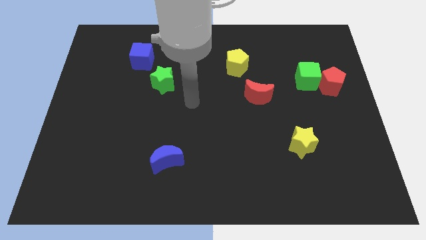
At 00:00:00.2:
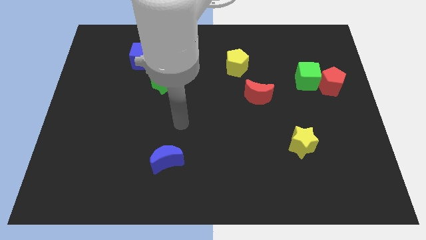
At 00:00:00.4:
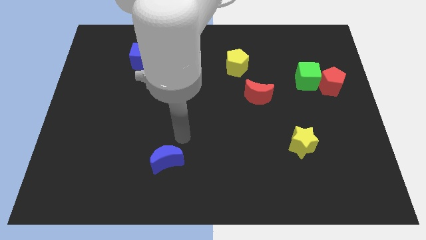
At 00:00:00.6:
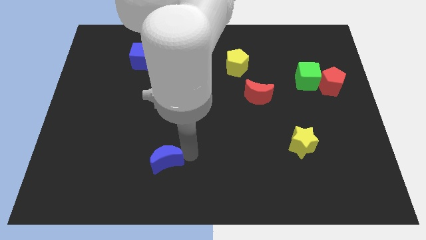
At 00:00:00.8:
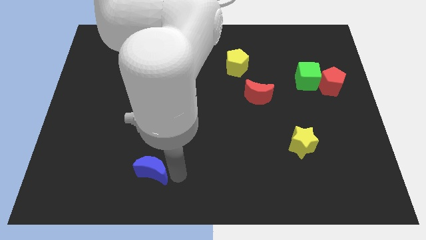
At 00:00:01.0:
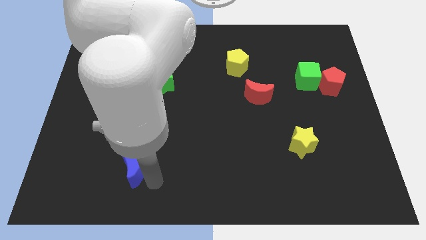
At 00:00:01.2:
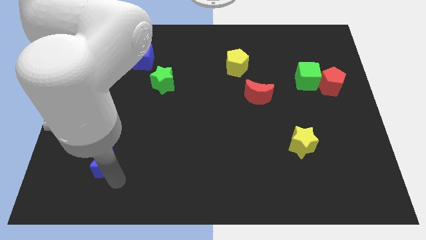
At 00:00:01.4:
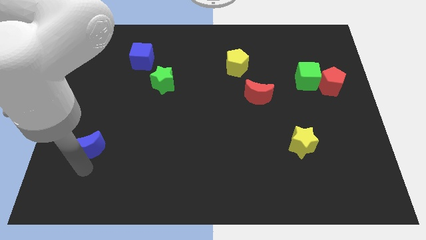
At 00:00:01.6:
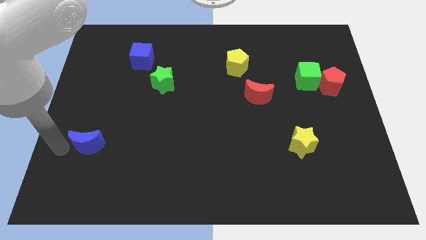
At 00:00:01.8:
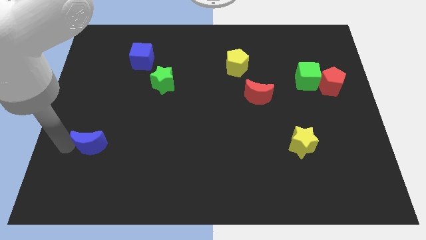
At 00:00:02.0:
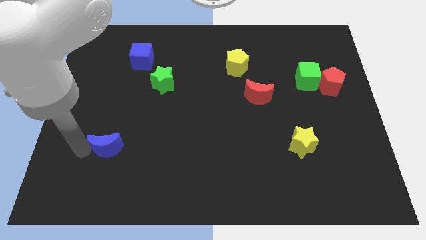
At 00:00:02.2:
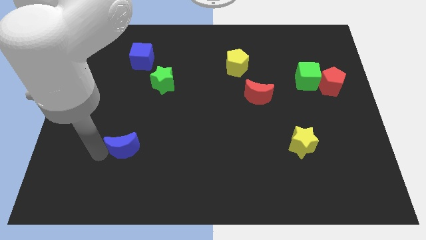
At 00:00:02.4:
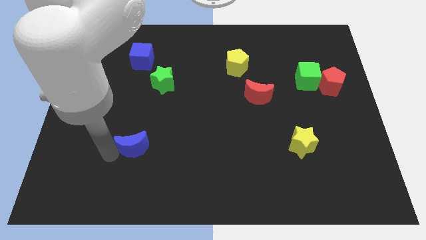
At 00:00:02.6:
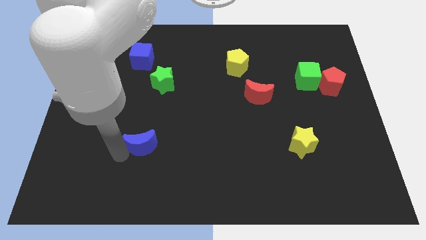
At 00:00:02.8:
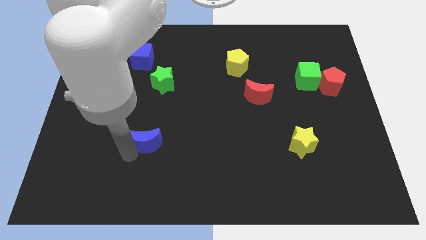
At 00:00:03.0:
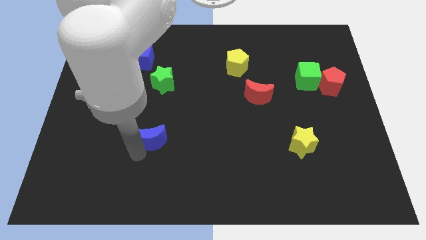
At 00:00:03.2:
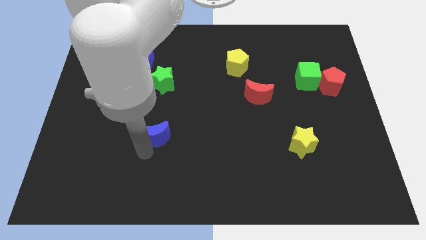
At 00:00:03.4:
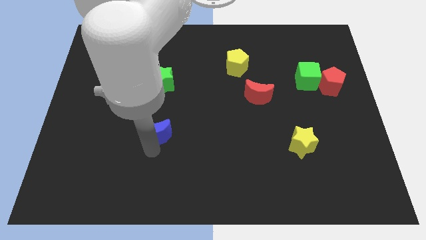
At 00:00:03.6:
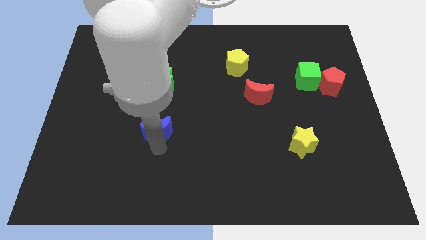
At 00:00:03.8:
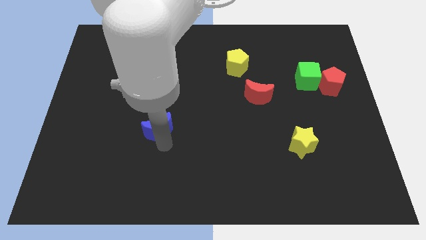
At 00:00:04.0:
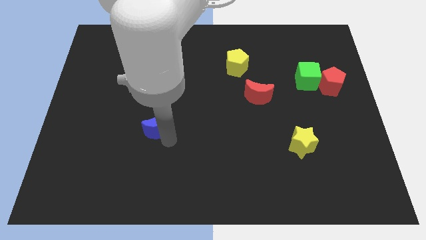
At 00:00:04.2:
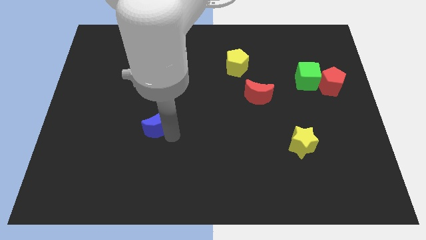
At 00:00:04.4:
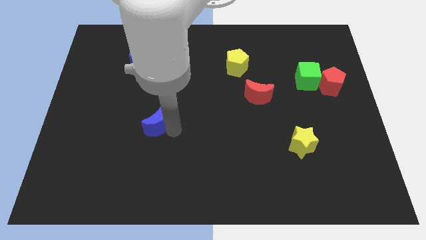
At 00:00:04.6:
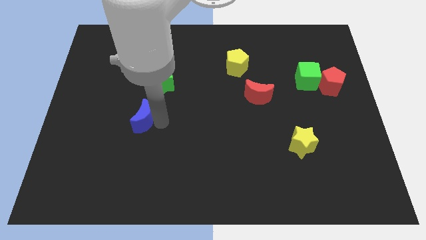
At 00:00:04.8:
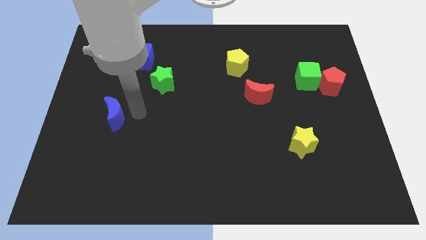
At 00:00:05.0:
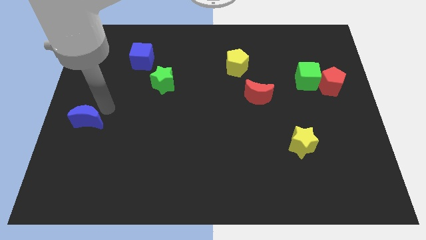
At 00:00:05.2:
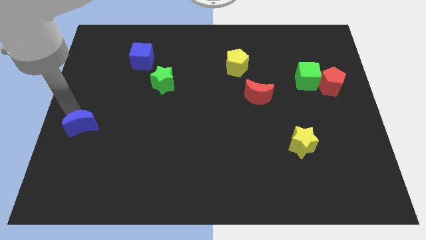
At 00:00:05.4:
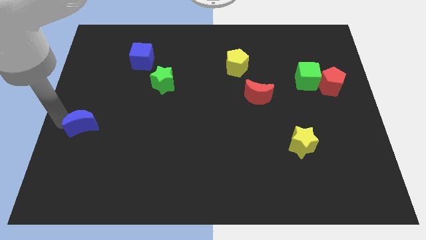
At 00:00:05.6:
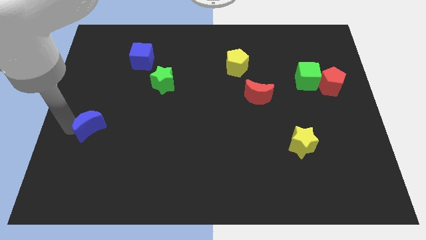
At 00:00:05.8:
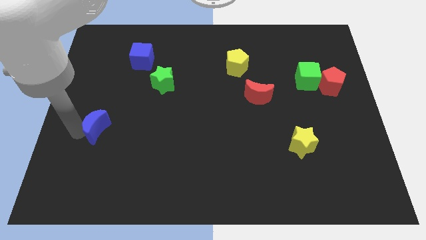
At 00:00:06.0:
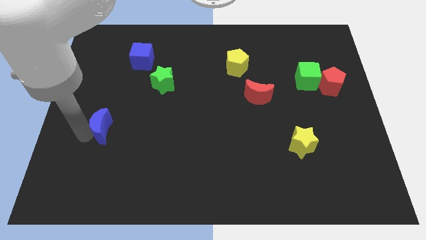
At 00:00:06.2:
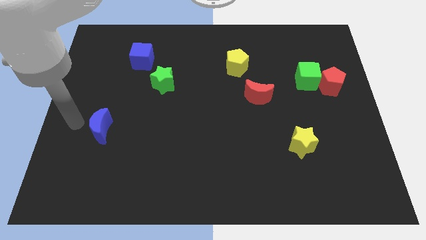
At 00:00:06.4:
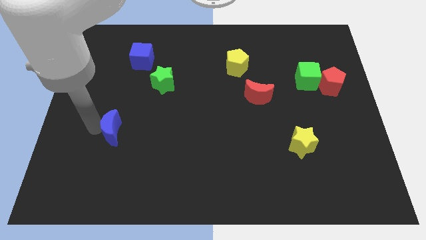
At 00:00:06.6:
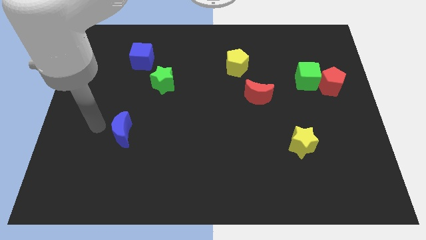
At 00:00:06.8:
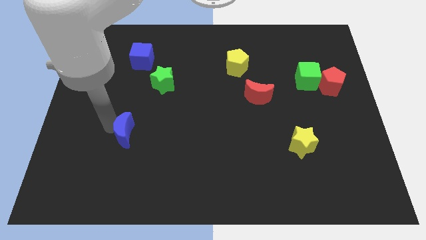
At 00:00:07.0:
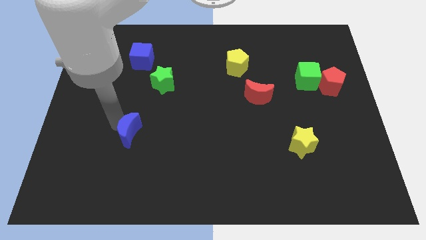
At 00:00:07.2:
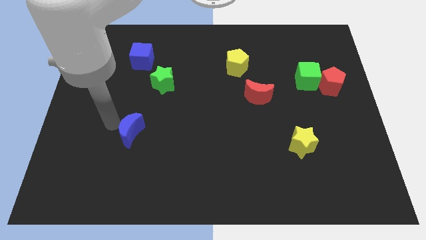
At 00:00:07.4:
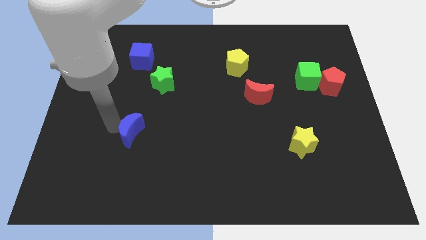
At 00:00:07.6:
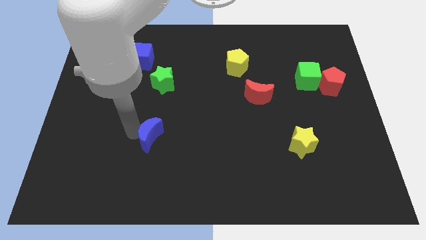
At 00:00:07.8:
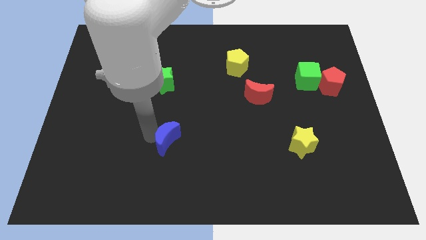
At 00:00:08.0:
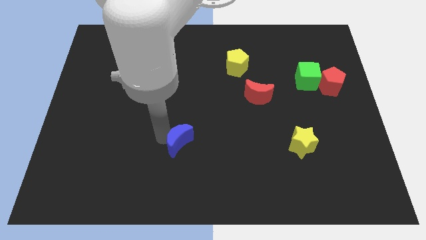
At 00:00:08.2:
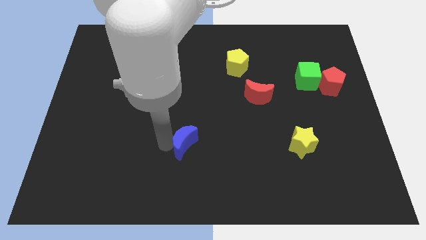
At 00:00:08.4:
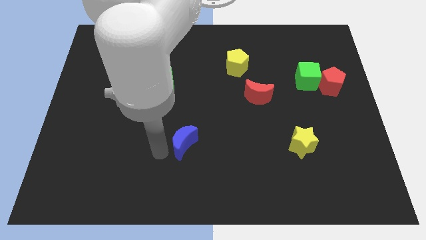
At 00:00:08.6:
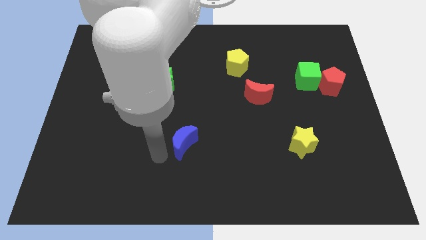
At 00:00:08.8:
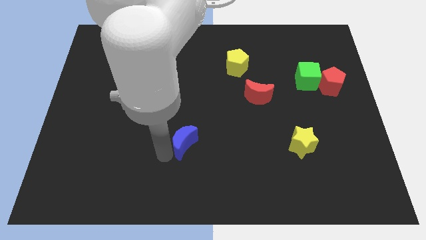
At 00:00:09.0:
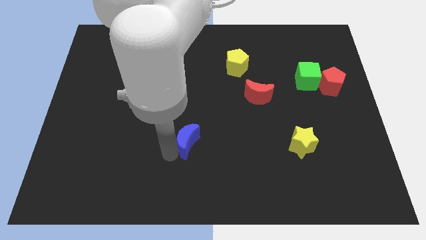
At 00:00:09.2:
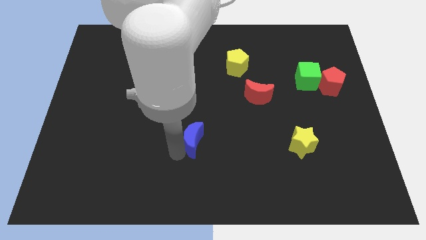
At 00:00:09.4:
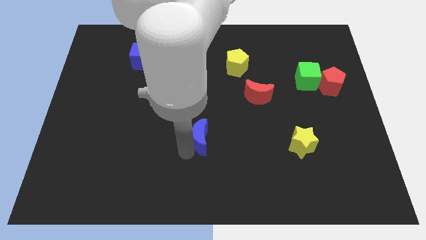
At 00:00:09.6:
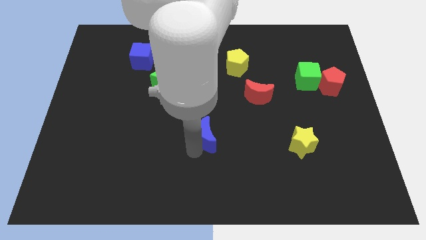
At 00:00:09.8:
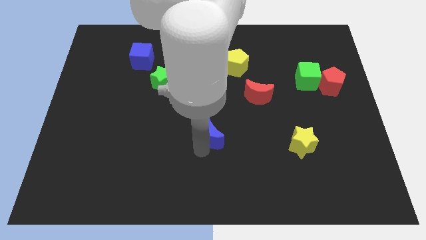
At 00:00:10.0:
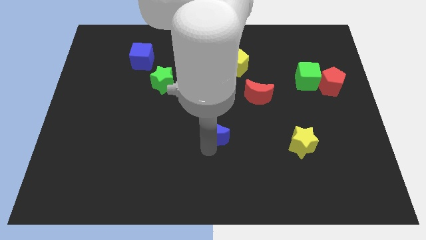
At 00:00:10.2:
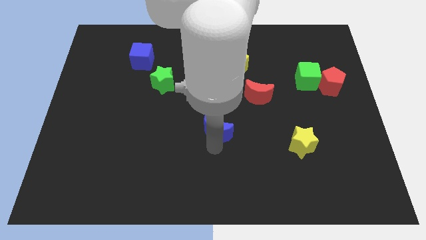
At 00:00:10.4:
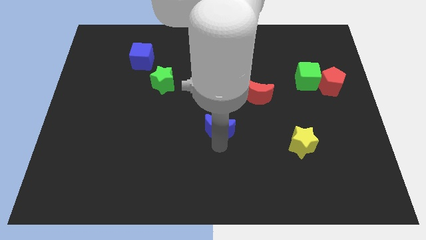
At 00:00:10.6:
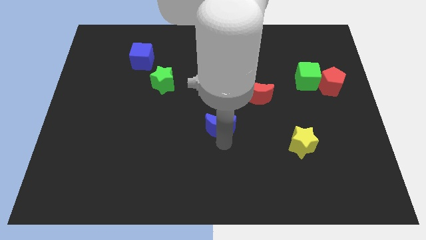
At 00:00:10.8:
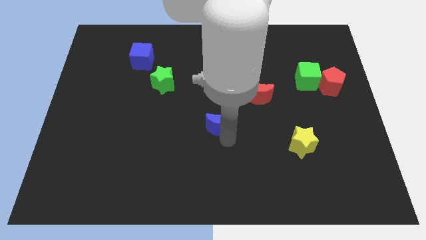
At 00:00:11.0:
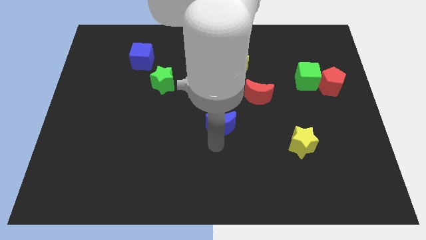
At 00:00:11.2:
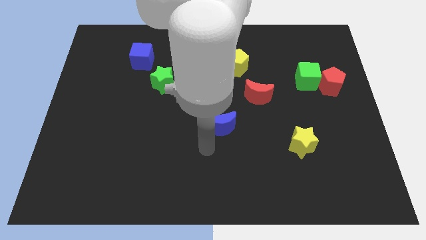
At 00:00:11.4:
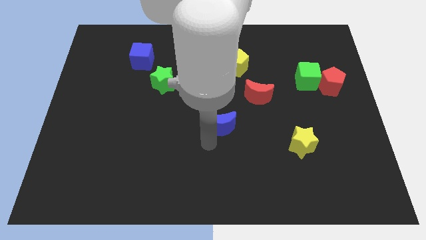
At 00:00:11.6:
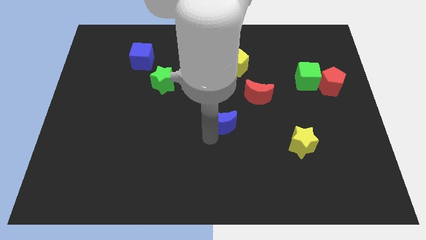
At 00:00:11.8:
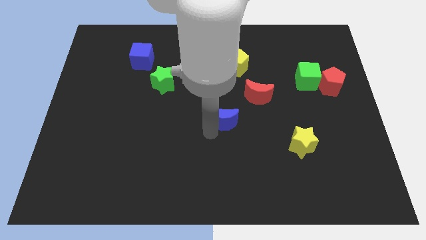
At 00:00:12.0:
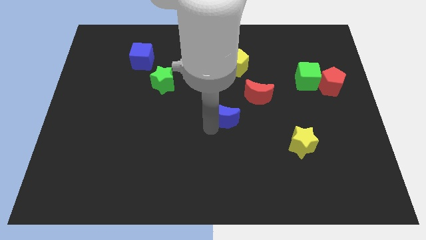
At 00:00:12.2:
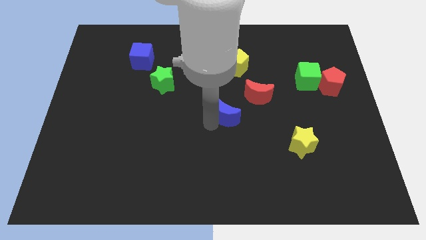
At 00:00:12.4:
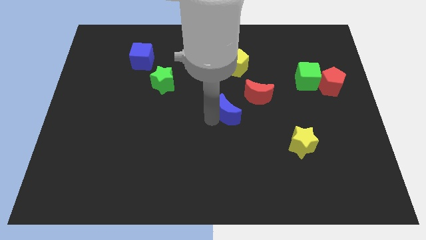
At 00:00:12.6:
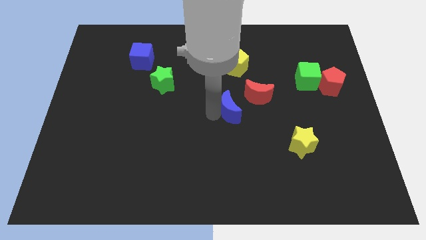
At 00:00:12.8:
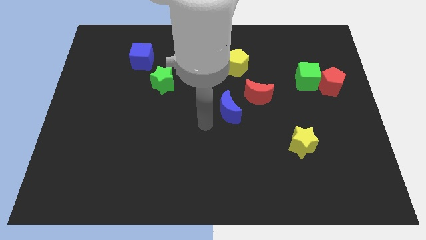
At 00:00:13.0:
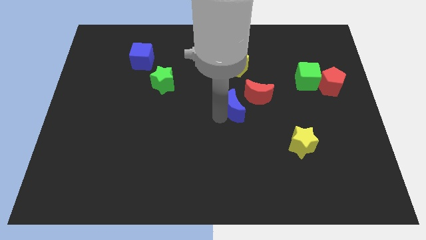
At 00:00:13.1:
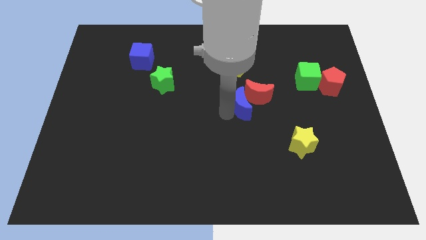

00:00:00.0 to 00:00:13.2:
slide the blue moon next to the red moon
